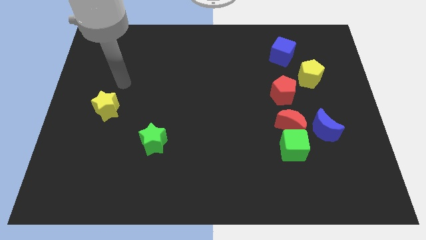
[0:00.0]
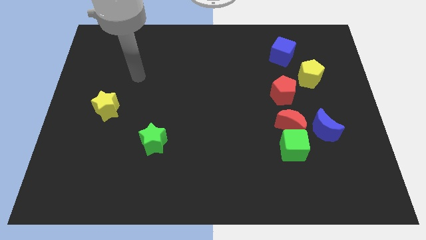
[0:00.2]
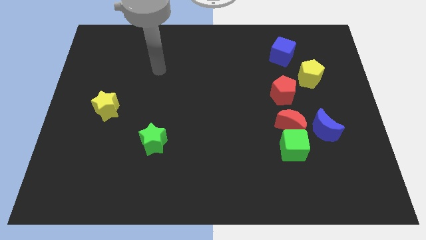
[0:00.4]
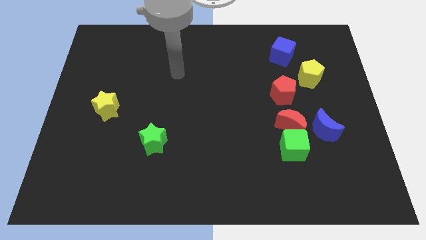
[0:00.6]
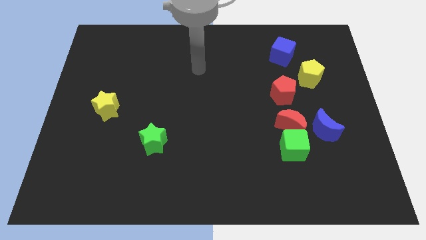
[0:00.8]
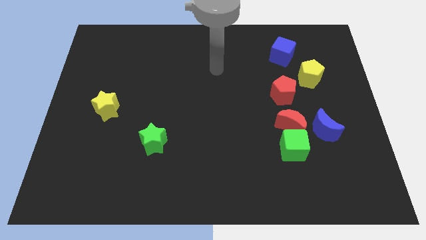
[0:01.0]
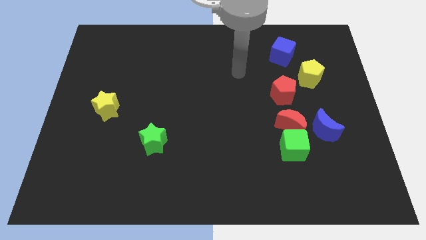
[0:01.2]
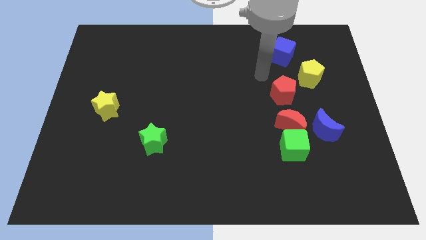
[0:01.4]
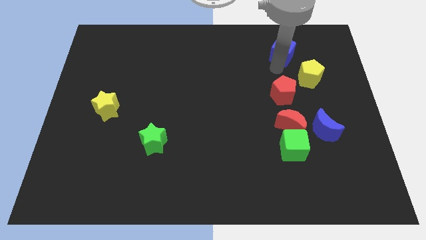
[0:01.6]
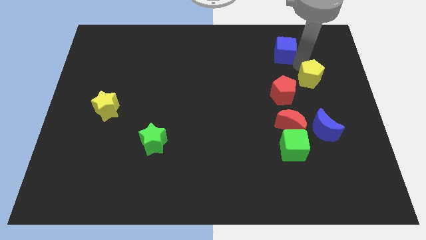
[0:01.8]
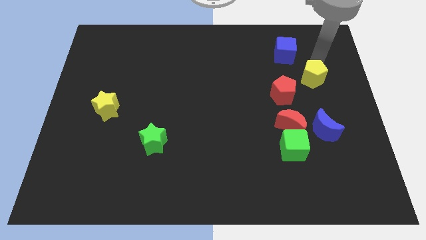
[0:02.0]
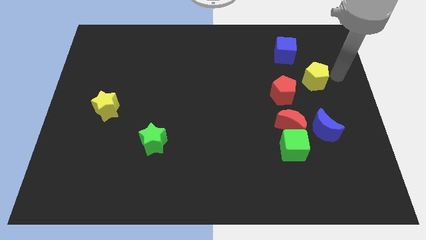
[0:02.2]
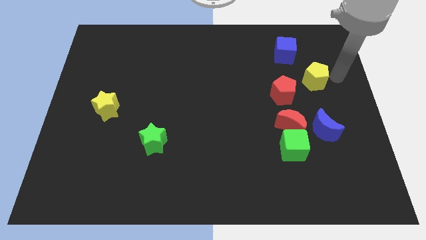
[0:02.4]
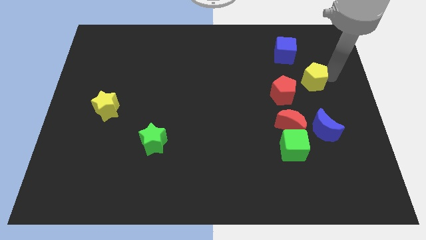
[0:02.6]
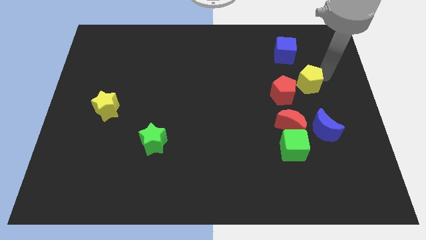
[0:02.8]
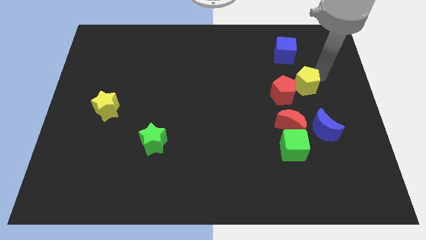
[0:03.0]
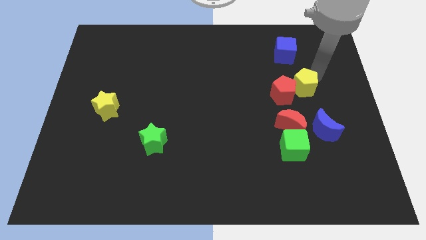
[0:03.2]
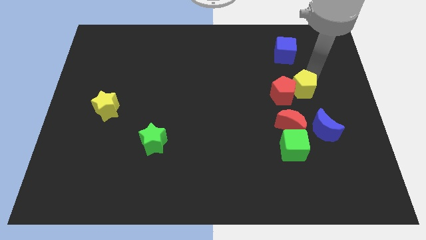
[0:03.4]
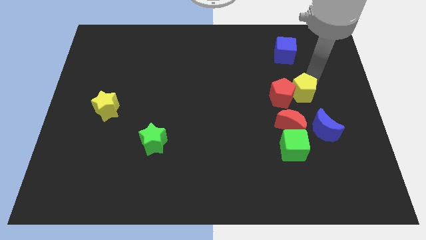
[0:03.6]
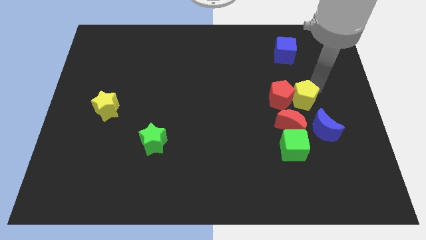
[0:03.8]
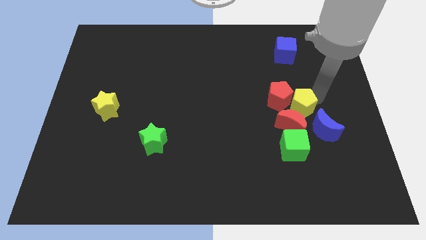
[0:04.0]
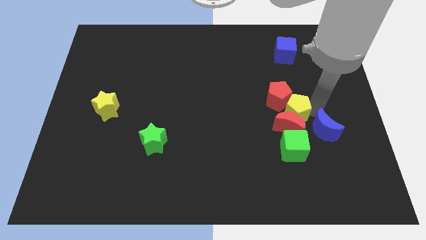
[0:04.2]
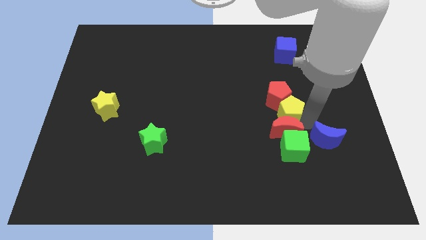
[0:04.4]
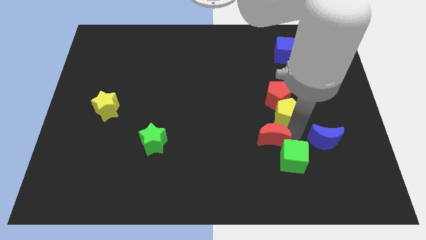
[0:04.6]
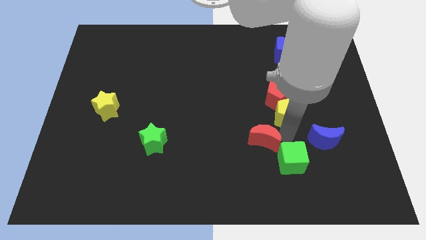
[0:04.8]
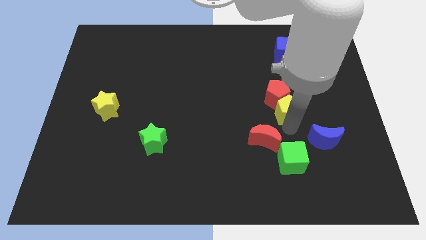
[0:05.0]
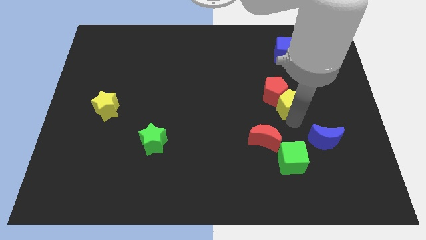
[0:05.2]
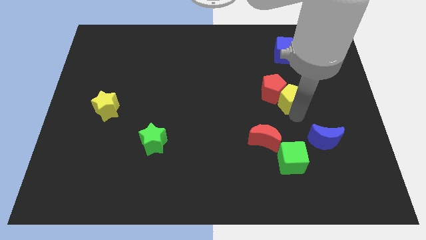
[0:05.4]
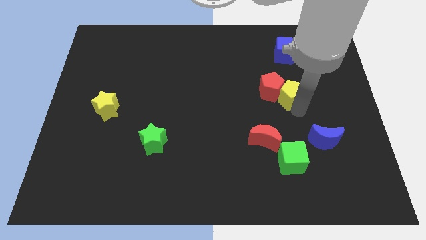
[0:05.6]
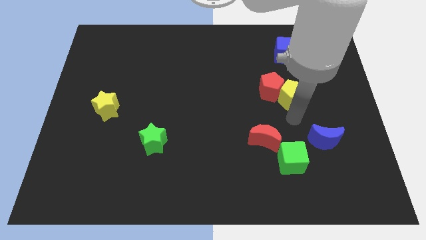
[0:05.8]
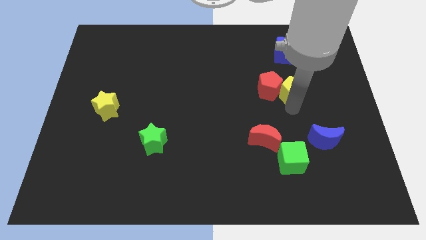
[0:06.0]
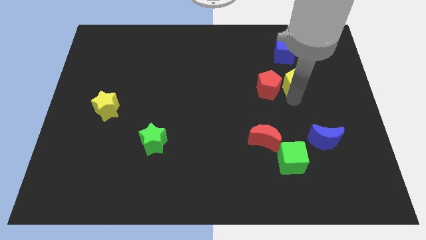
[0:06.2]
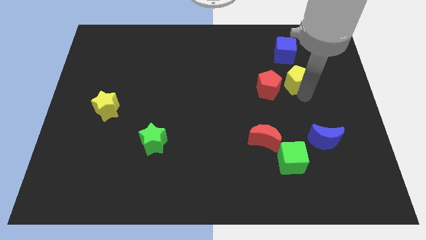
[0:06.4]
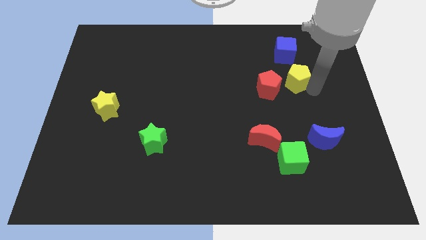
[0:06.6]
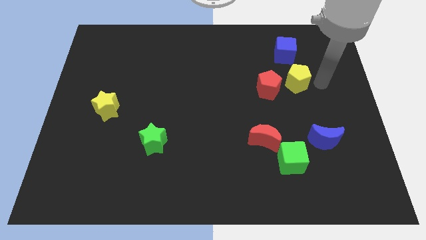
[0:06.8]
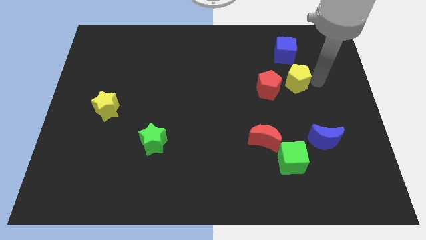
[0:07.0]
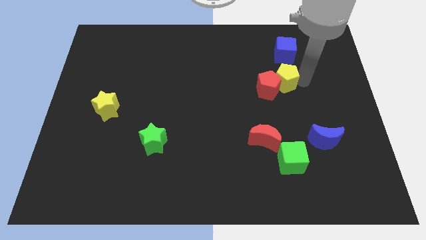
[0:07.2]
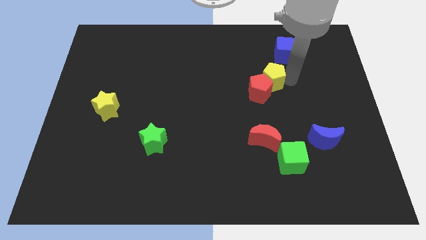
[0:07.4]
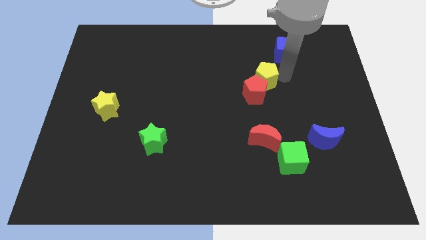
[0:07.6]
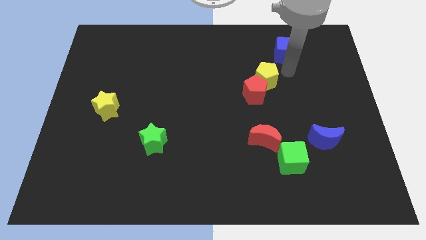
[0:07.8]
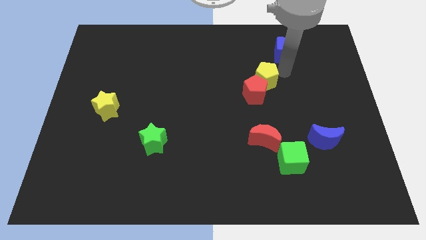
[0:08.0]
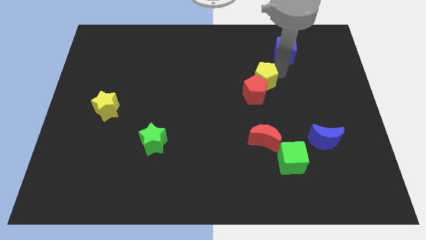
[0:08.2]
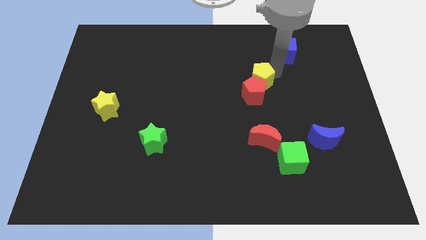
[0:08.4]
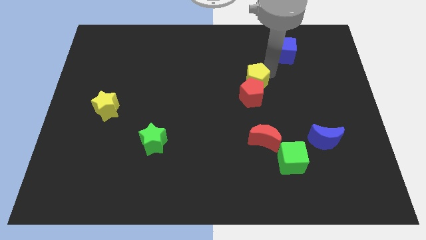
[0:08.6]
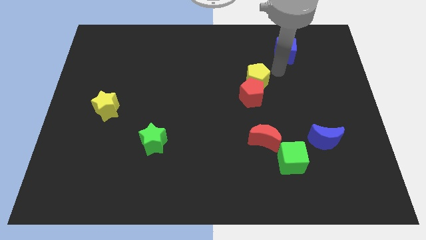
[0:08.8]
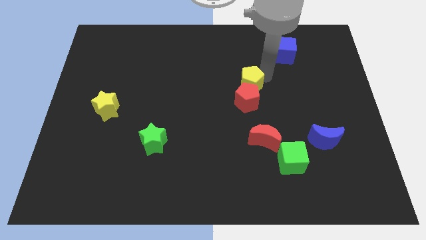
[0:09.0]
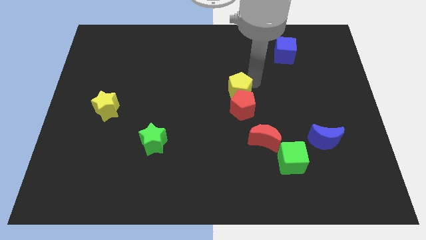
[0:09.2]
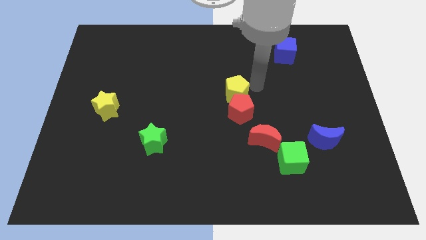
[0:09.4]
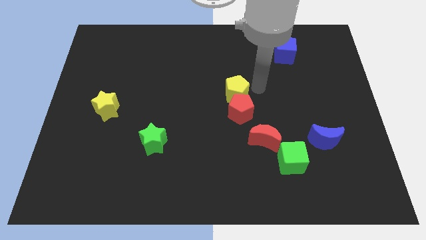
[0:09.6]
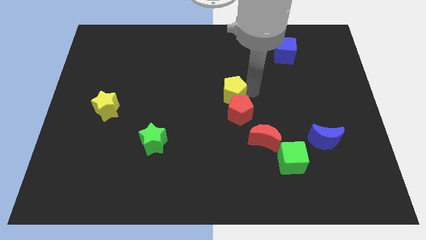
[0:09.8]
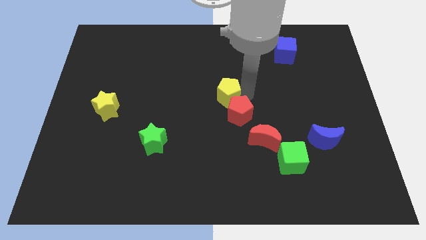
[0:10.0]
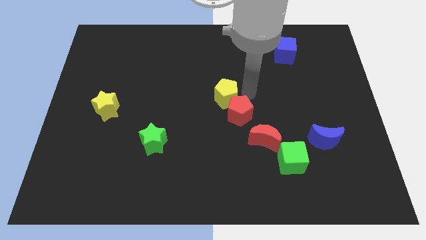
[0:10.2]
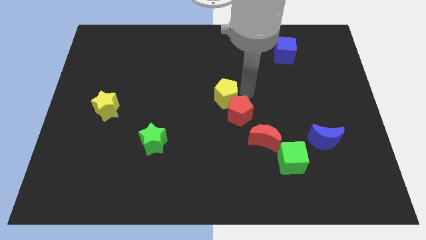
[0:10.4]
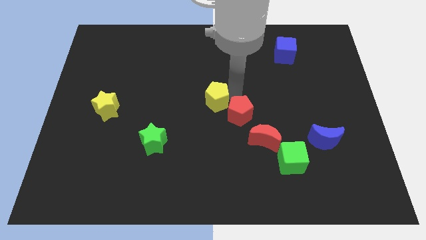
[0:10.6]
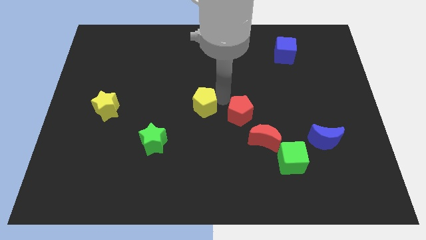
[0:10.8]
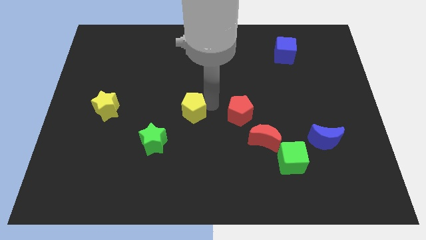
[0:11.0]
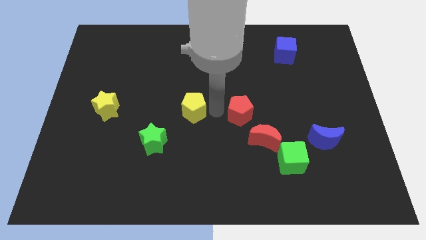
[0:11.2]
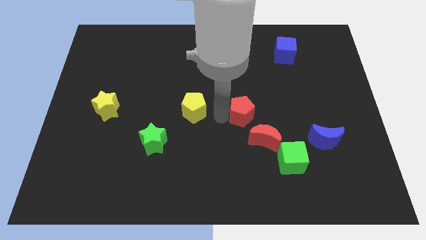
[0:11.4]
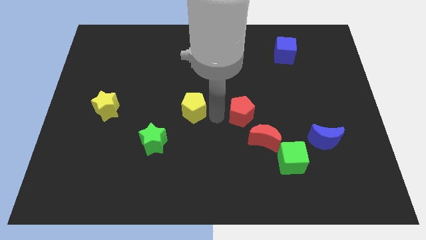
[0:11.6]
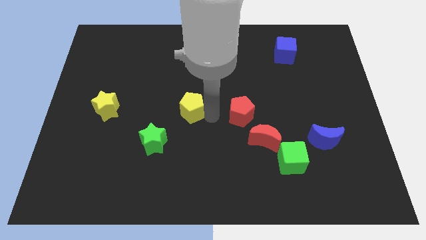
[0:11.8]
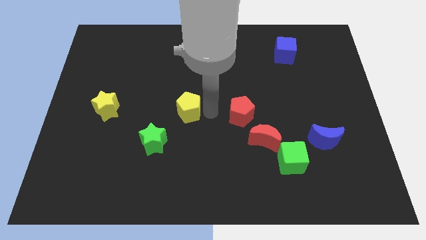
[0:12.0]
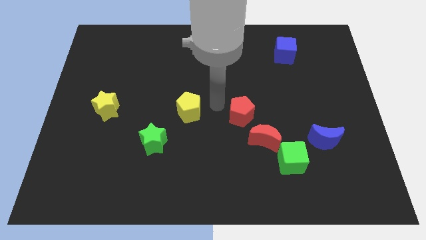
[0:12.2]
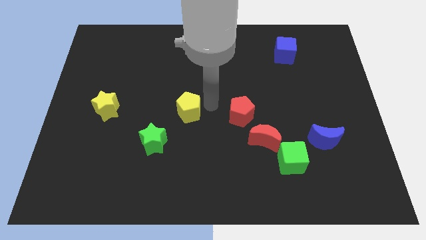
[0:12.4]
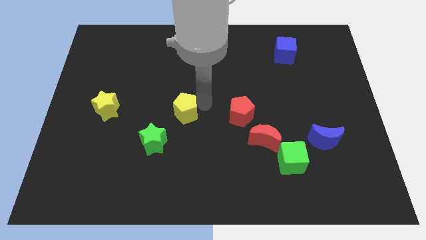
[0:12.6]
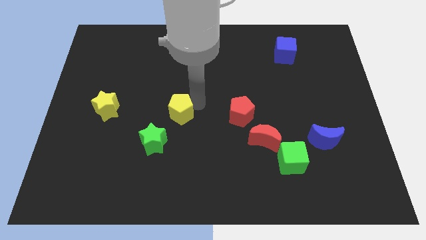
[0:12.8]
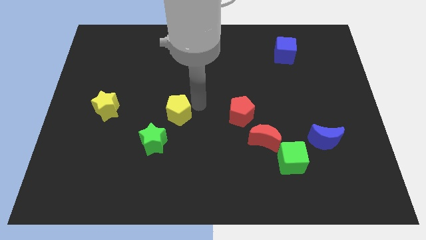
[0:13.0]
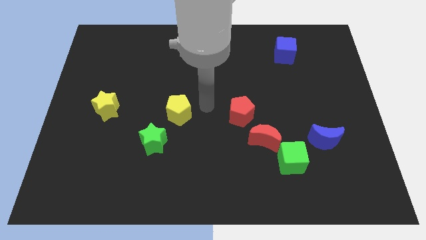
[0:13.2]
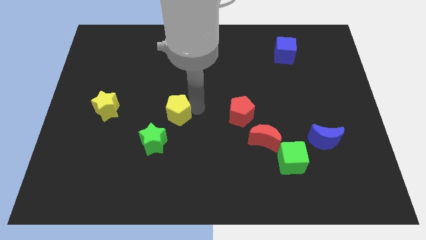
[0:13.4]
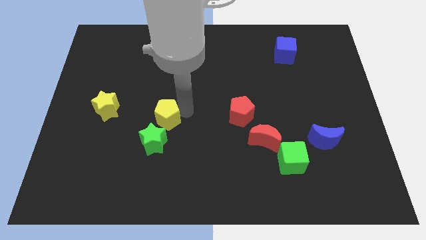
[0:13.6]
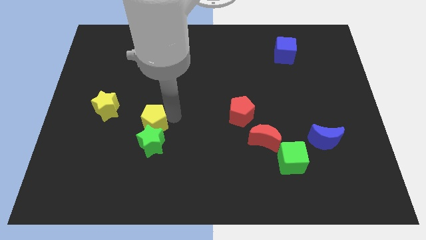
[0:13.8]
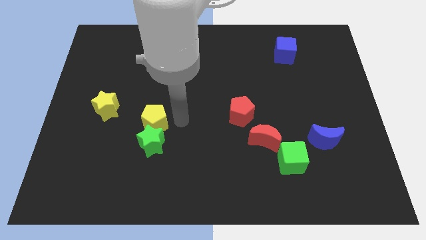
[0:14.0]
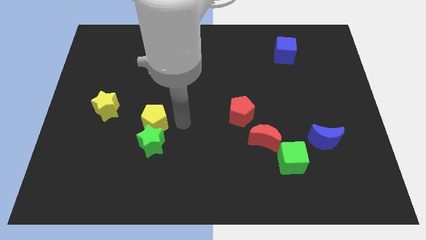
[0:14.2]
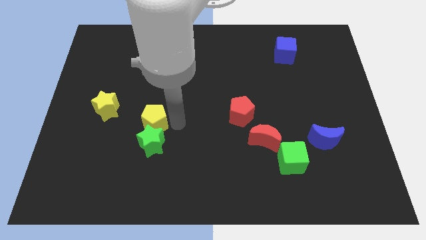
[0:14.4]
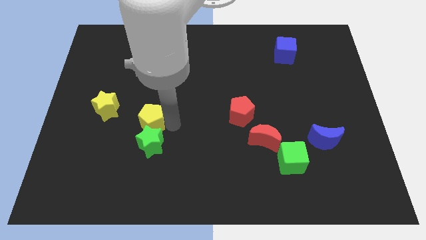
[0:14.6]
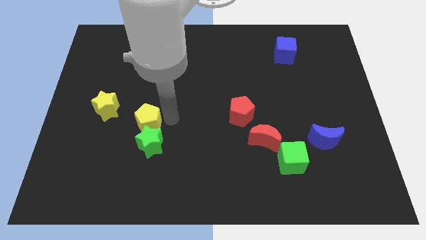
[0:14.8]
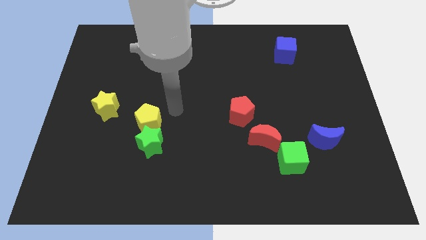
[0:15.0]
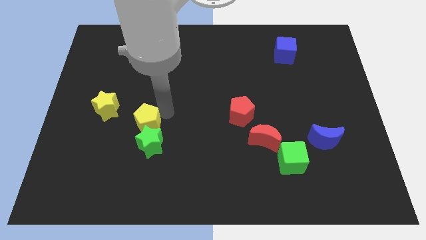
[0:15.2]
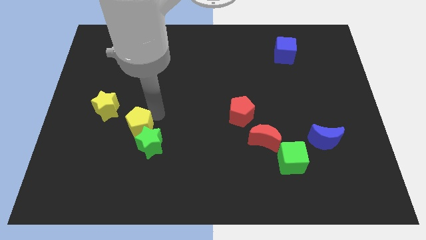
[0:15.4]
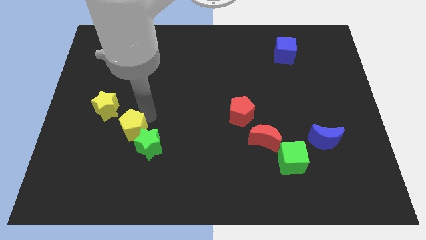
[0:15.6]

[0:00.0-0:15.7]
put the yellow pentagon to the left of the green star

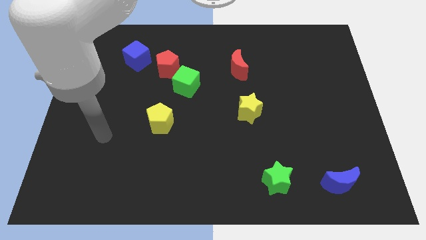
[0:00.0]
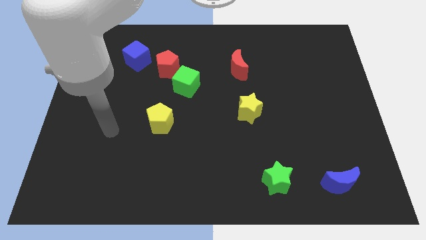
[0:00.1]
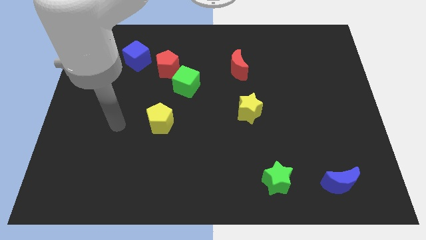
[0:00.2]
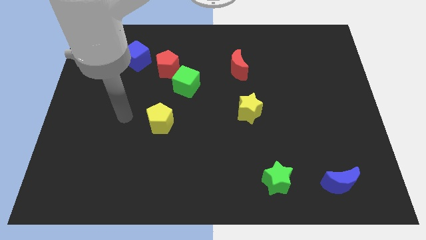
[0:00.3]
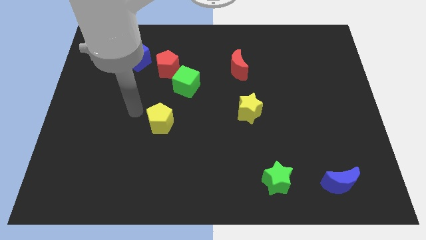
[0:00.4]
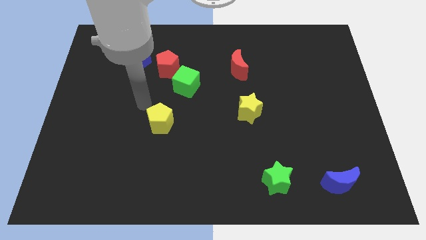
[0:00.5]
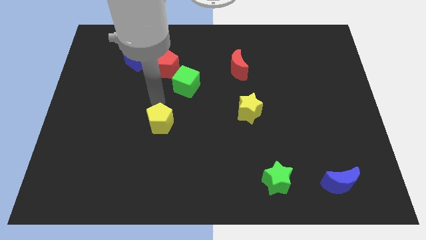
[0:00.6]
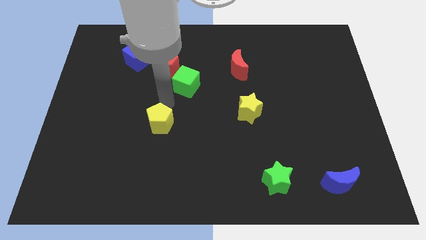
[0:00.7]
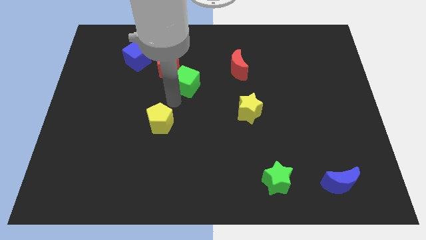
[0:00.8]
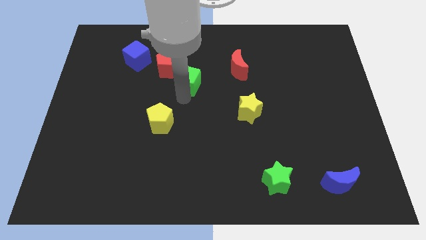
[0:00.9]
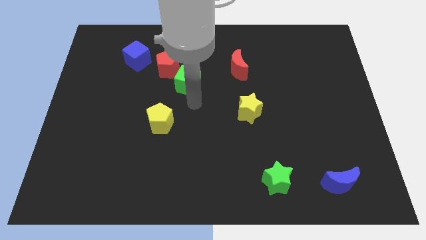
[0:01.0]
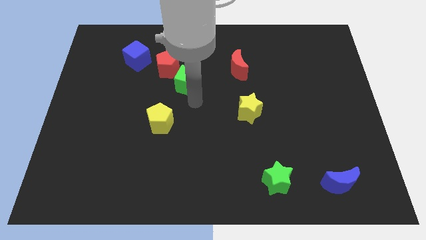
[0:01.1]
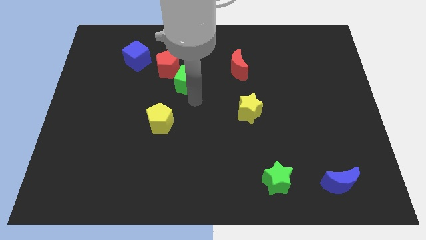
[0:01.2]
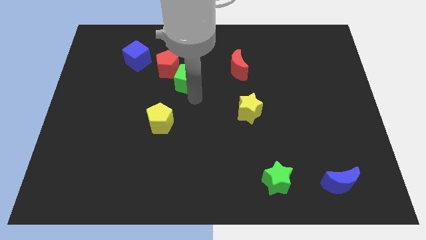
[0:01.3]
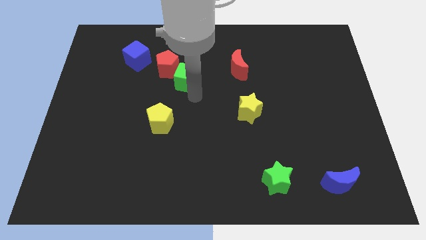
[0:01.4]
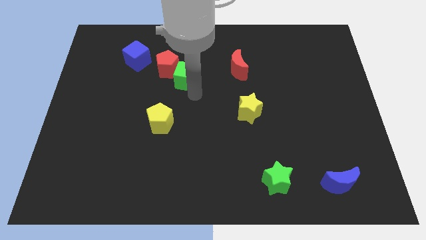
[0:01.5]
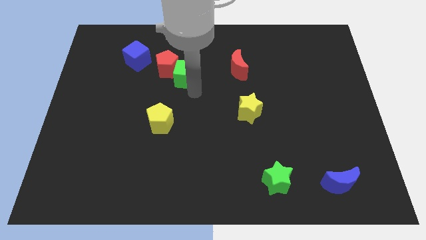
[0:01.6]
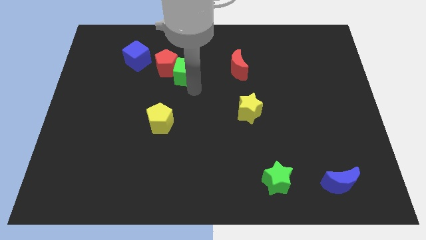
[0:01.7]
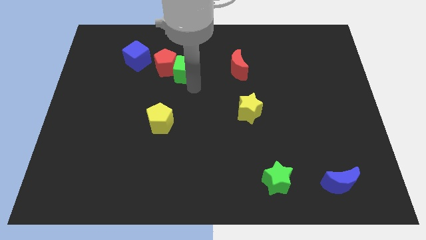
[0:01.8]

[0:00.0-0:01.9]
put the green cube right of the blue cube
